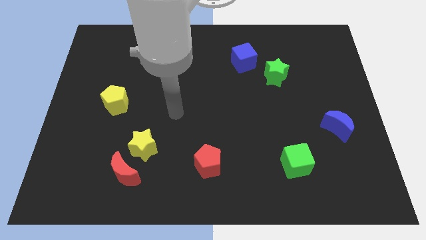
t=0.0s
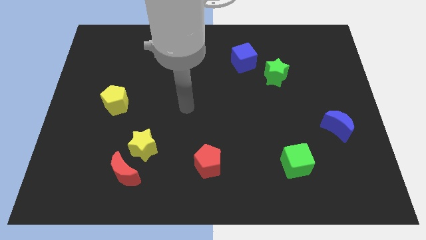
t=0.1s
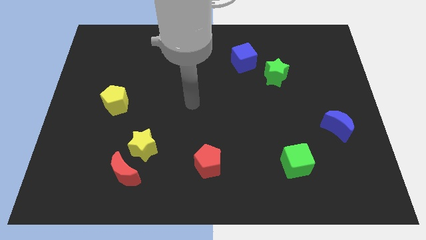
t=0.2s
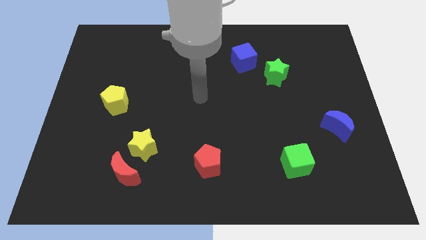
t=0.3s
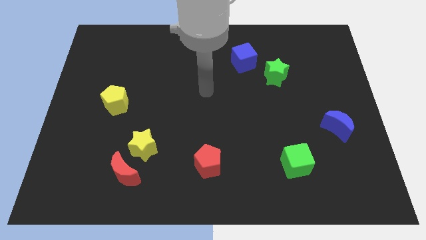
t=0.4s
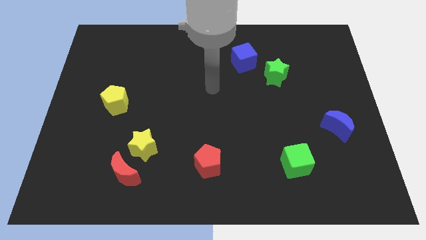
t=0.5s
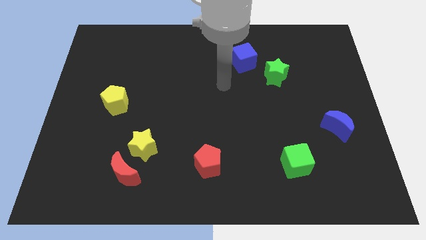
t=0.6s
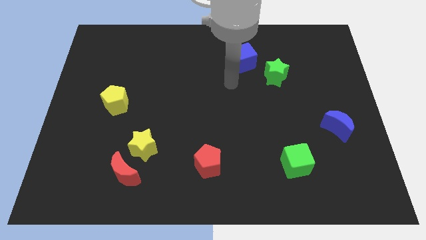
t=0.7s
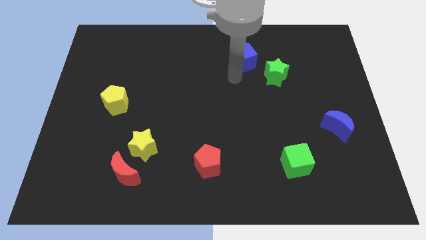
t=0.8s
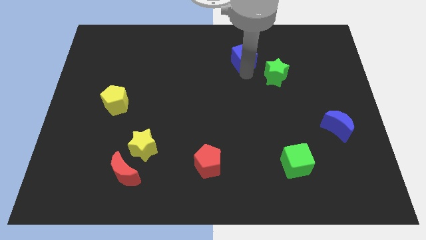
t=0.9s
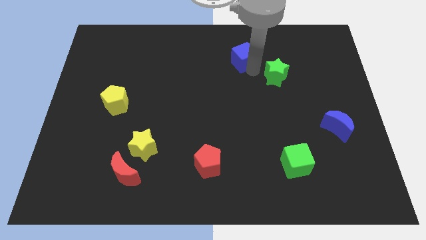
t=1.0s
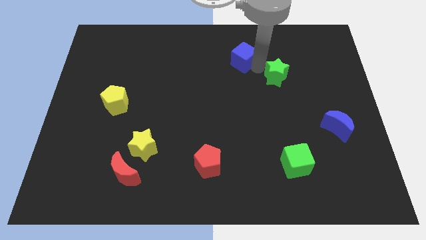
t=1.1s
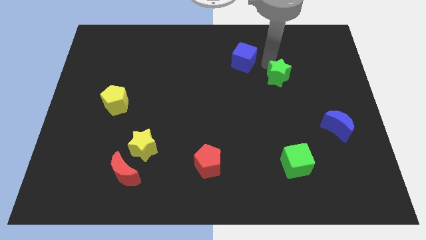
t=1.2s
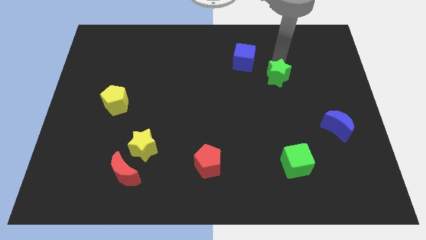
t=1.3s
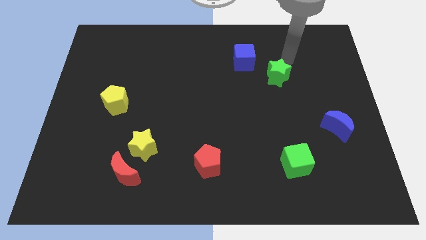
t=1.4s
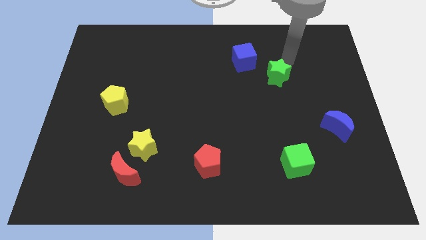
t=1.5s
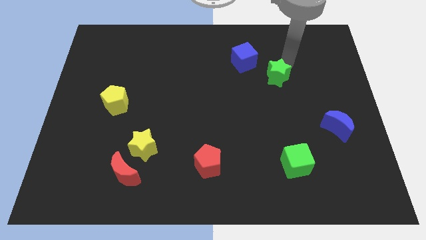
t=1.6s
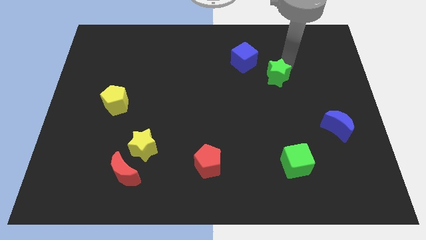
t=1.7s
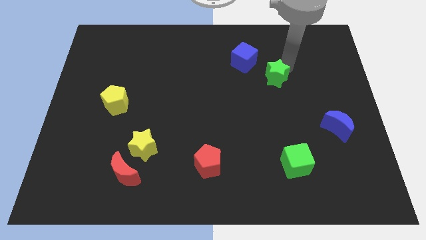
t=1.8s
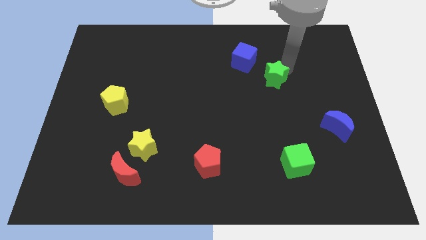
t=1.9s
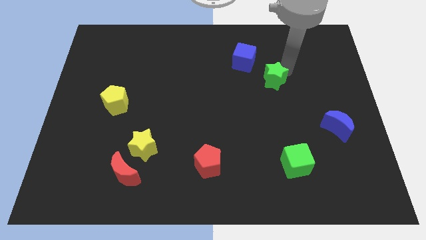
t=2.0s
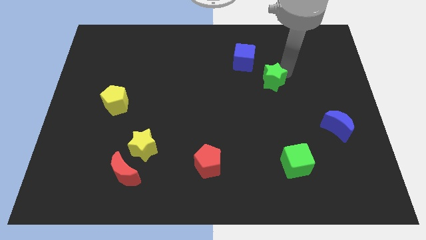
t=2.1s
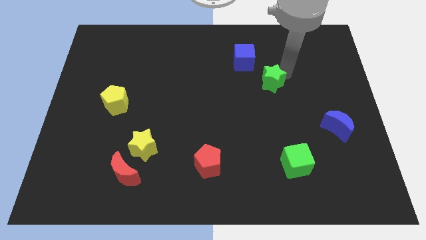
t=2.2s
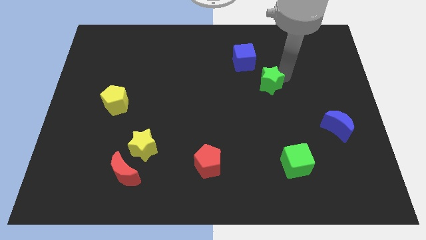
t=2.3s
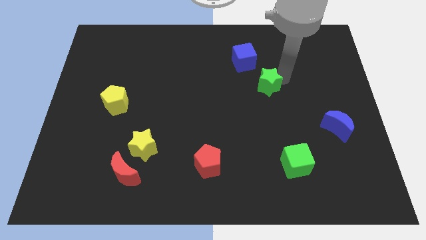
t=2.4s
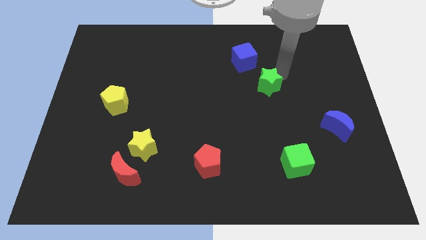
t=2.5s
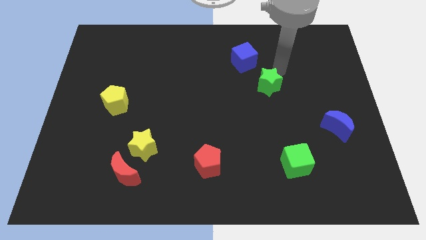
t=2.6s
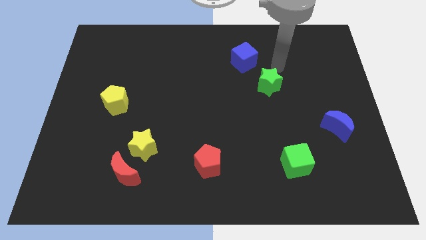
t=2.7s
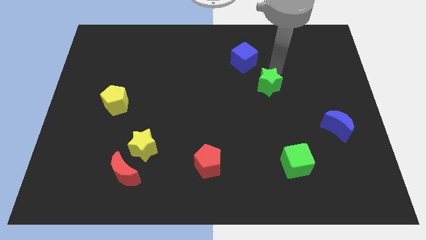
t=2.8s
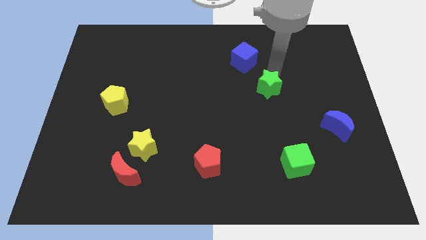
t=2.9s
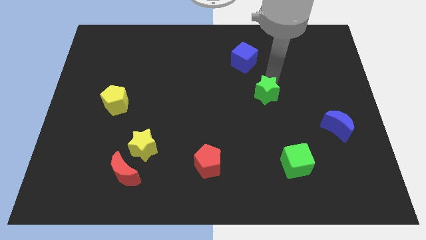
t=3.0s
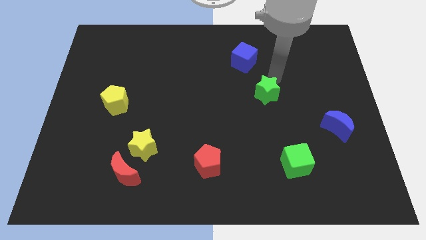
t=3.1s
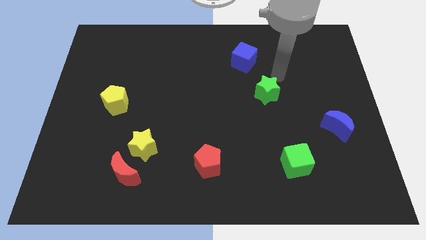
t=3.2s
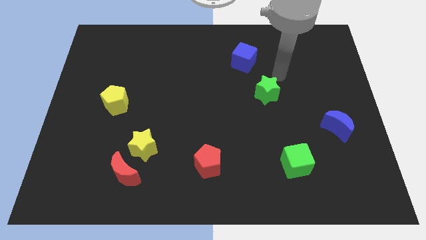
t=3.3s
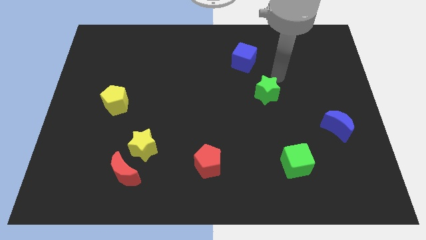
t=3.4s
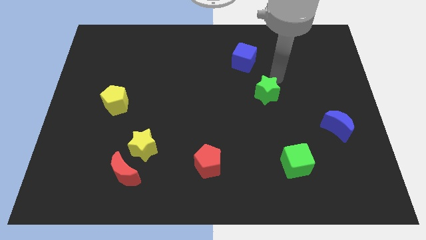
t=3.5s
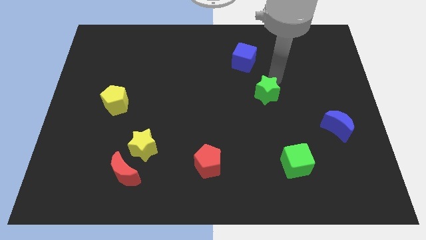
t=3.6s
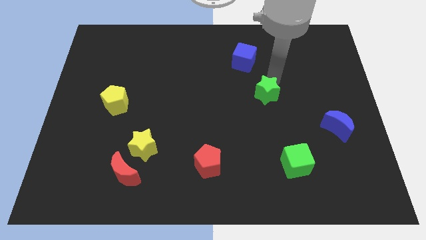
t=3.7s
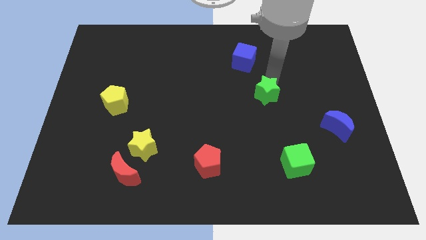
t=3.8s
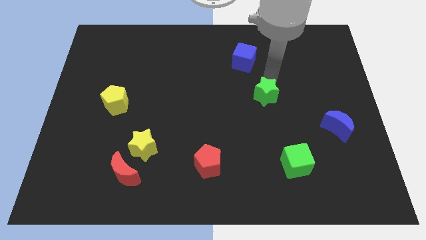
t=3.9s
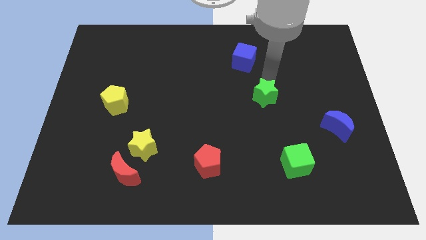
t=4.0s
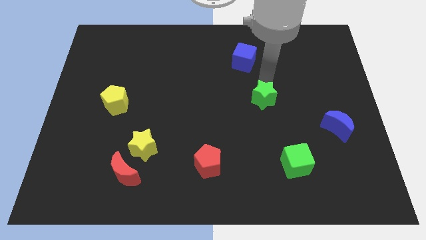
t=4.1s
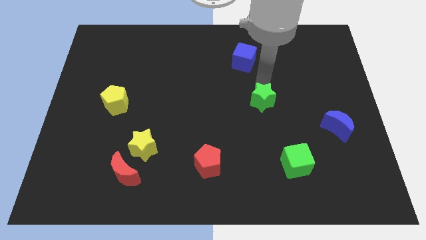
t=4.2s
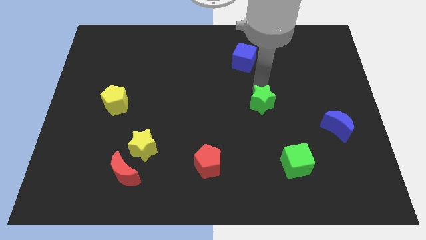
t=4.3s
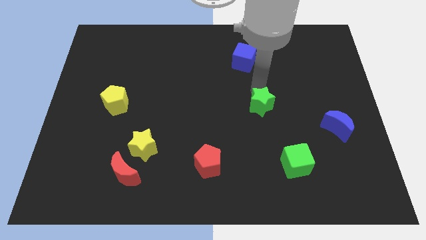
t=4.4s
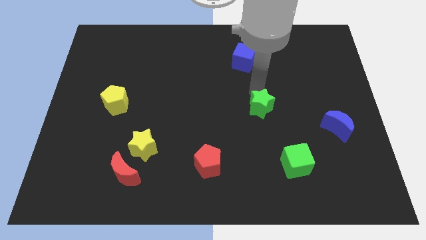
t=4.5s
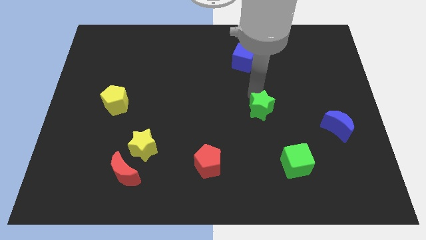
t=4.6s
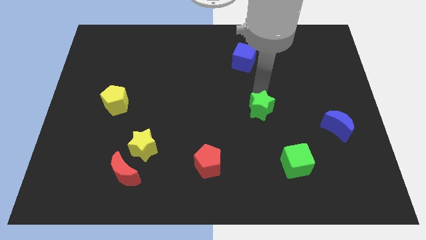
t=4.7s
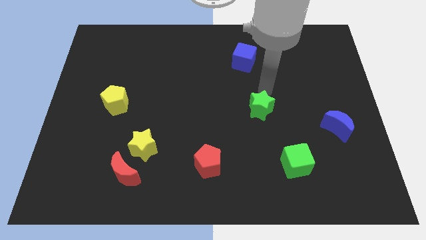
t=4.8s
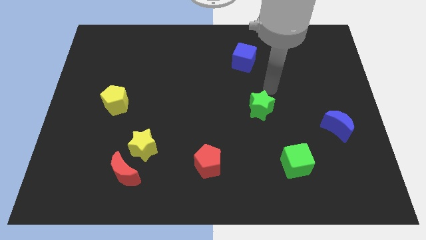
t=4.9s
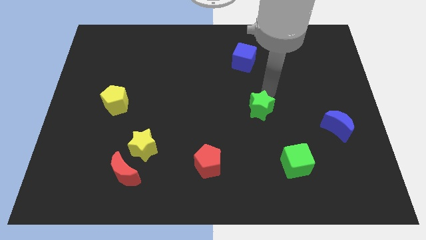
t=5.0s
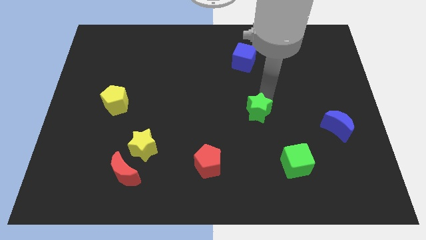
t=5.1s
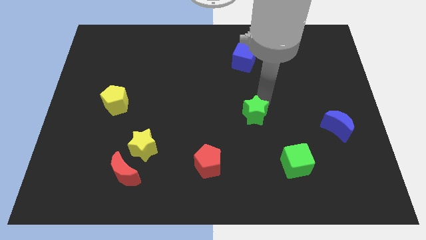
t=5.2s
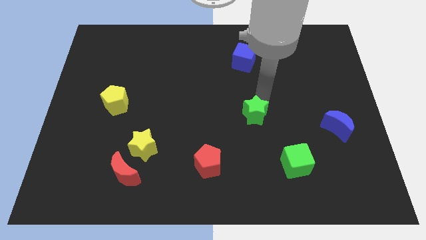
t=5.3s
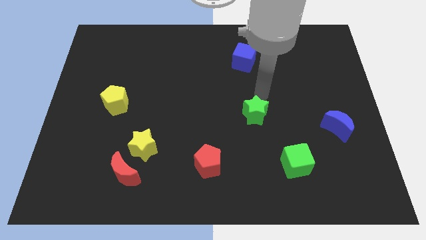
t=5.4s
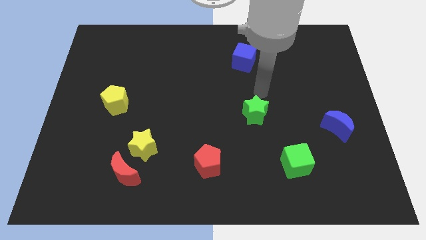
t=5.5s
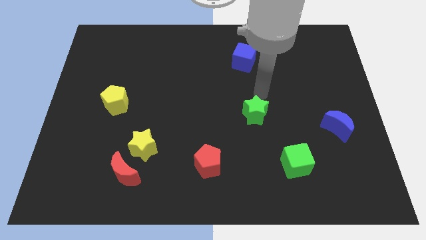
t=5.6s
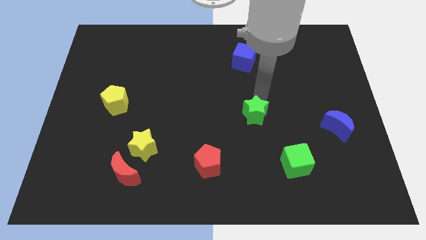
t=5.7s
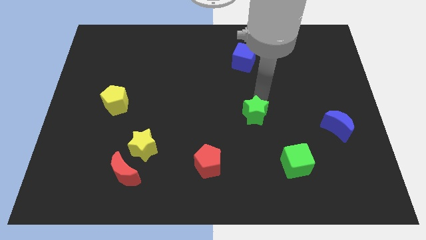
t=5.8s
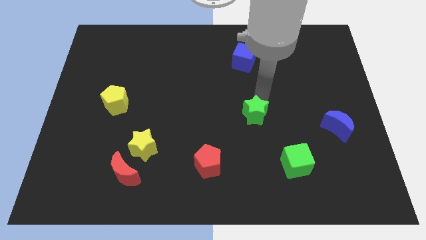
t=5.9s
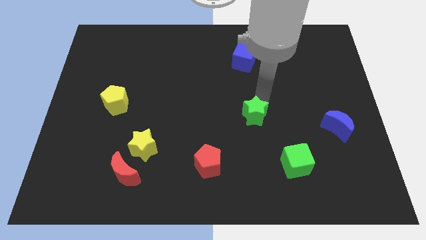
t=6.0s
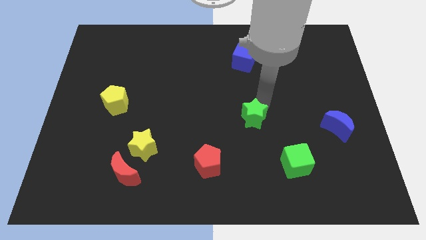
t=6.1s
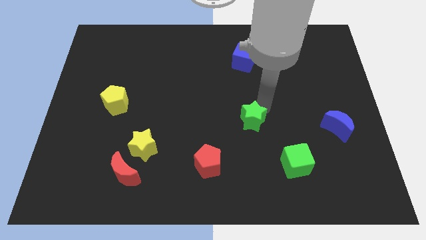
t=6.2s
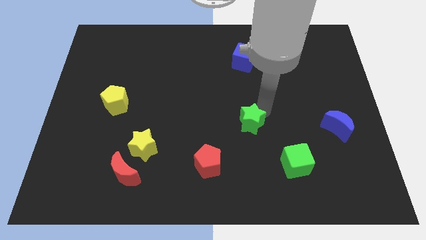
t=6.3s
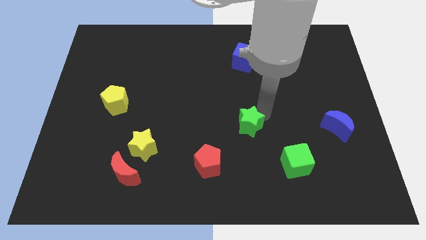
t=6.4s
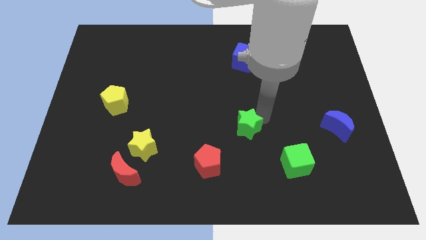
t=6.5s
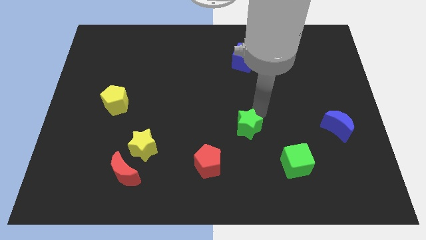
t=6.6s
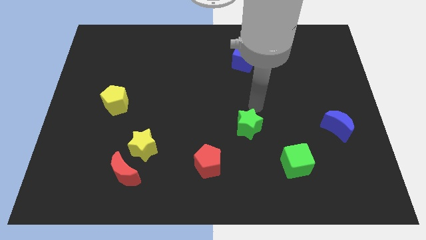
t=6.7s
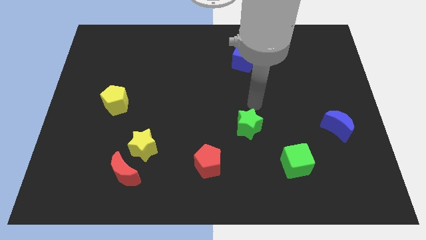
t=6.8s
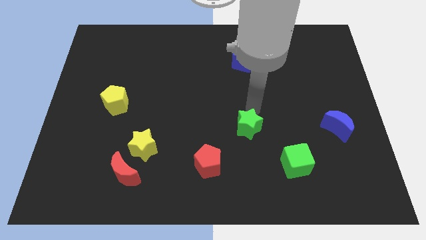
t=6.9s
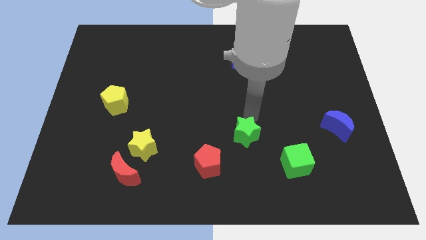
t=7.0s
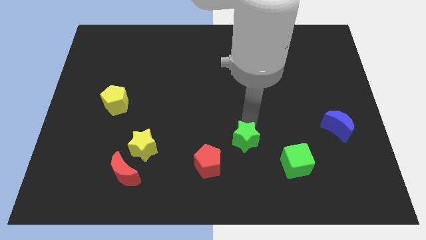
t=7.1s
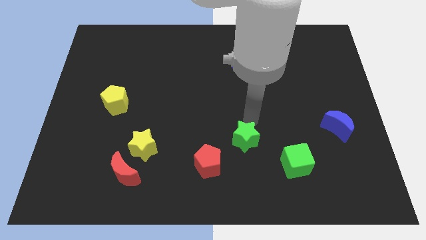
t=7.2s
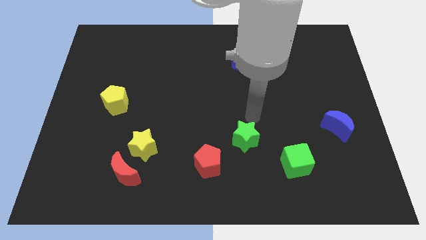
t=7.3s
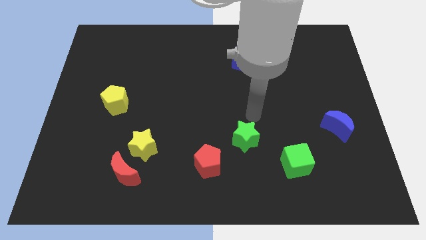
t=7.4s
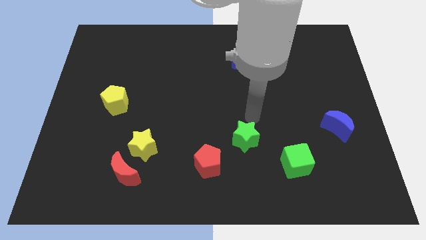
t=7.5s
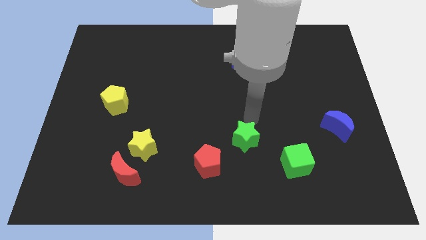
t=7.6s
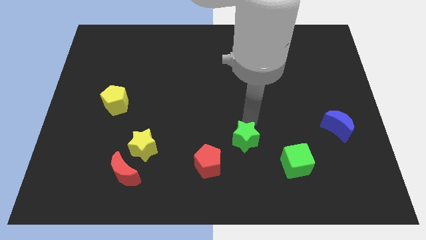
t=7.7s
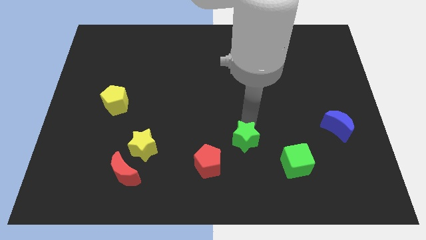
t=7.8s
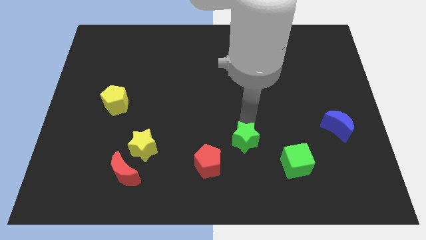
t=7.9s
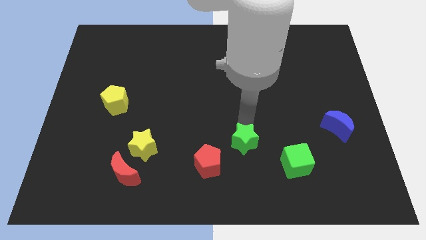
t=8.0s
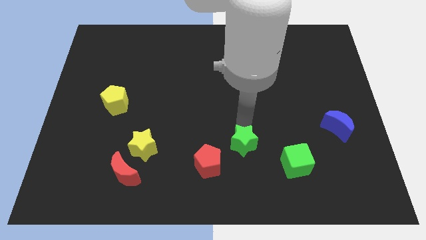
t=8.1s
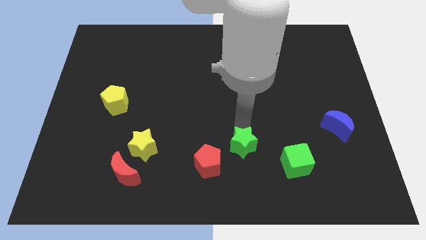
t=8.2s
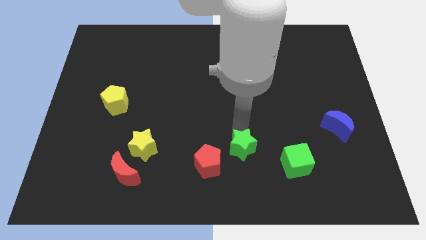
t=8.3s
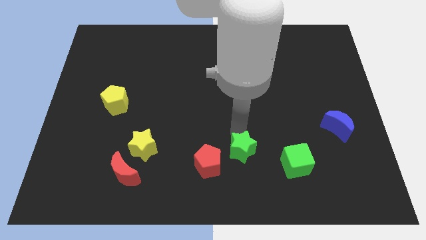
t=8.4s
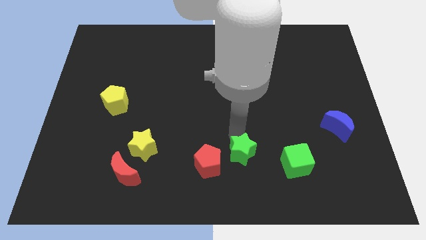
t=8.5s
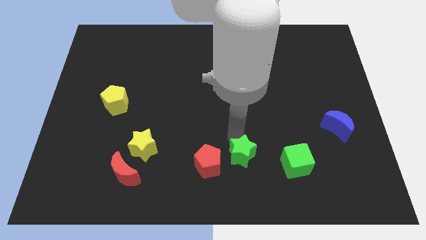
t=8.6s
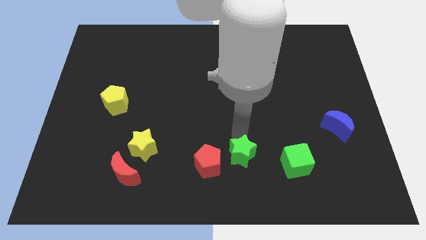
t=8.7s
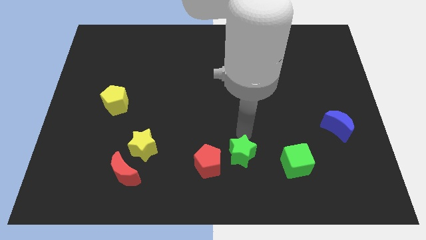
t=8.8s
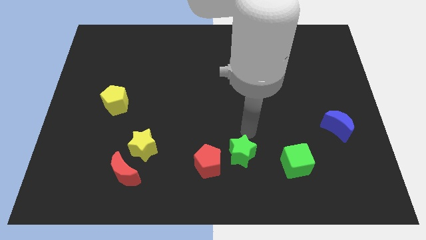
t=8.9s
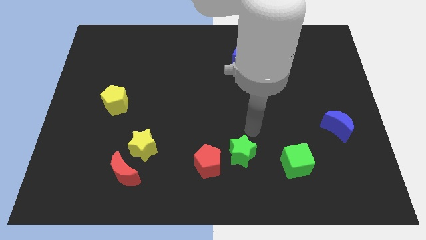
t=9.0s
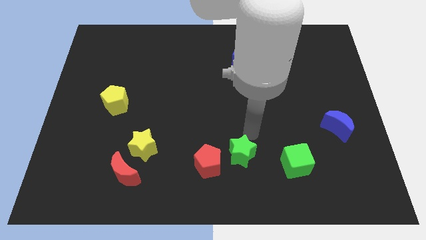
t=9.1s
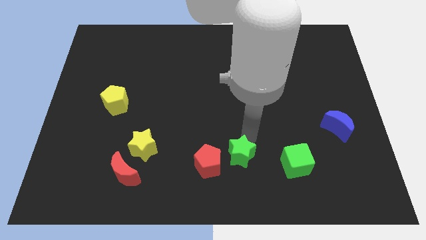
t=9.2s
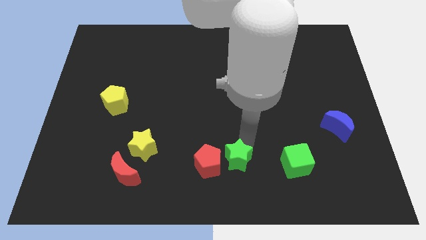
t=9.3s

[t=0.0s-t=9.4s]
put the green star to the bottom
